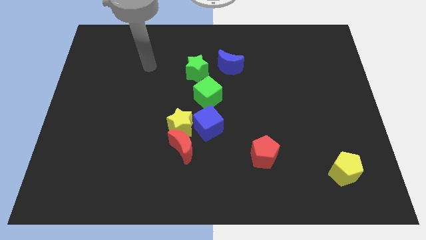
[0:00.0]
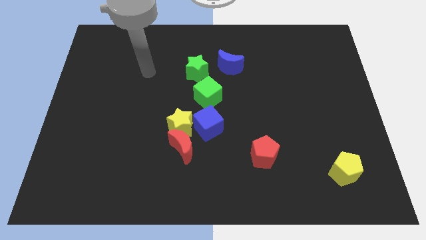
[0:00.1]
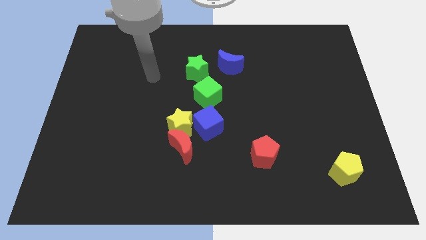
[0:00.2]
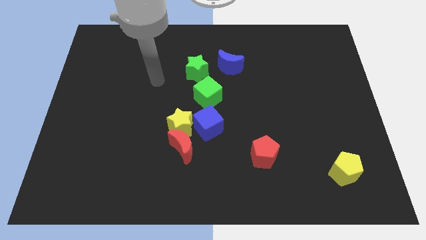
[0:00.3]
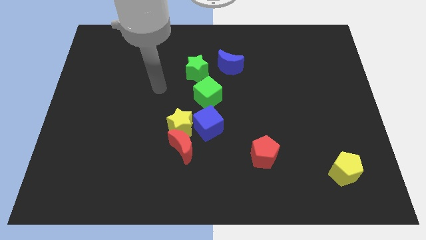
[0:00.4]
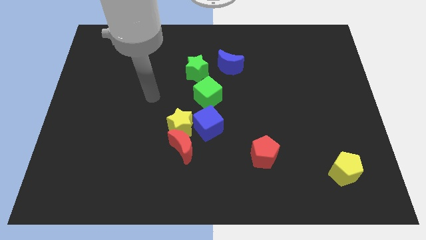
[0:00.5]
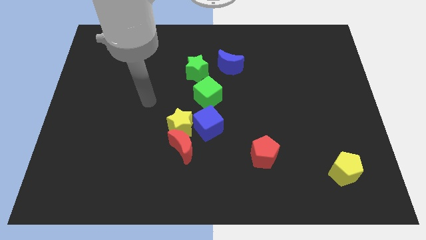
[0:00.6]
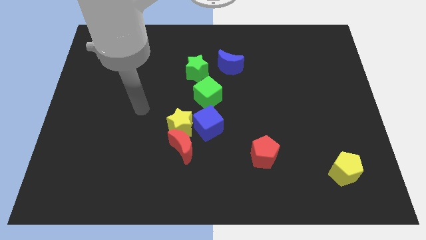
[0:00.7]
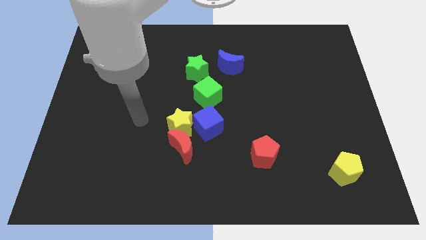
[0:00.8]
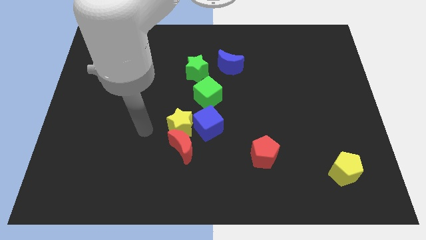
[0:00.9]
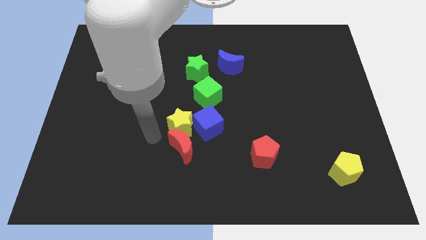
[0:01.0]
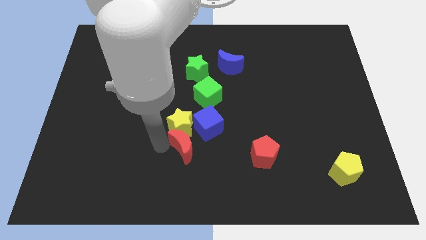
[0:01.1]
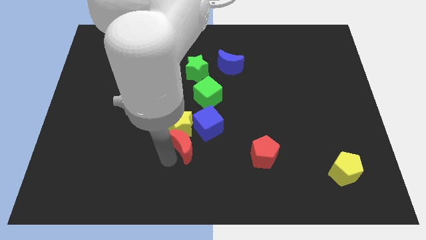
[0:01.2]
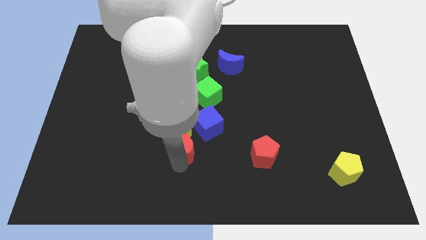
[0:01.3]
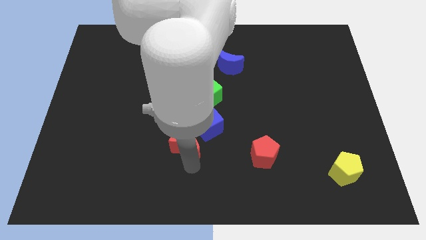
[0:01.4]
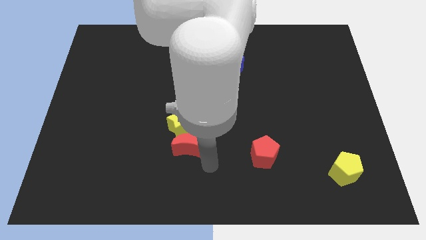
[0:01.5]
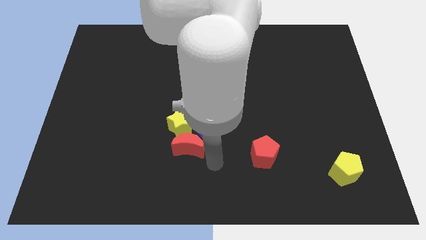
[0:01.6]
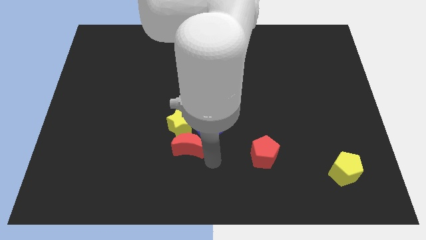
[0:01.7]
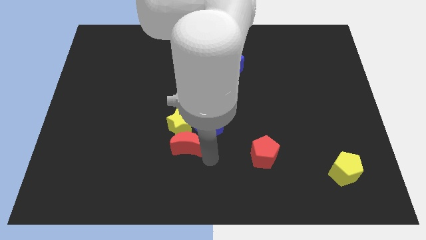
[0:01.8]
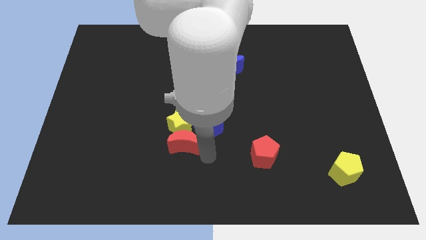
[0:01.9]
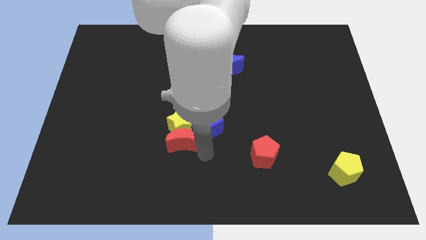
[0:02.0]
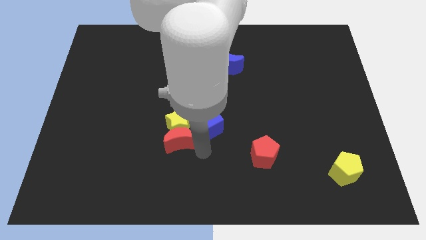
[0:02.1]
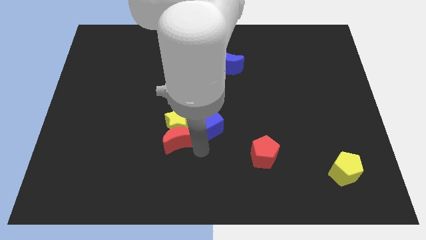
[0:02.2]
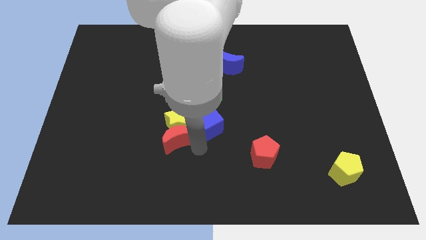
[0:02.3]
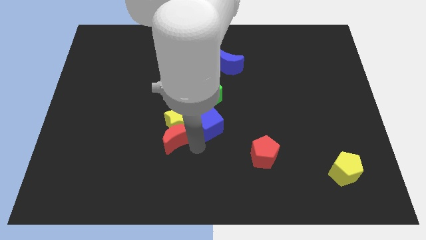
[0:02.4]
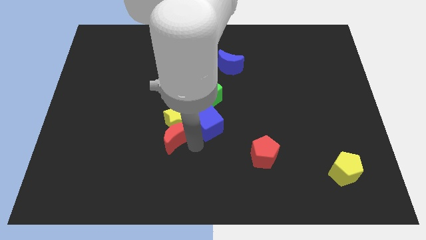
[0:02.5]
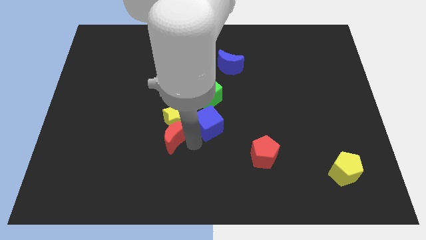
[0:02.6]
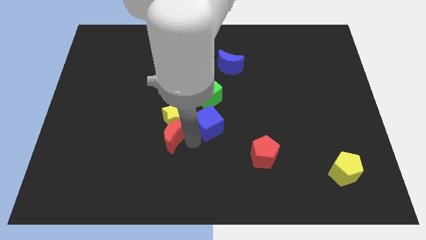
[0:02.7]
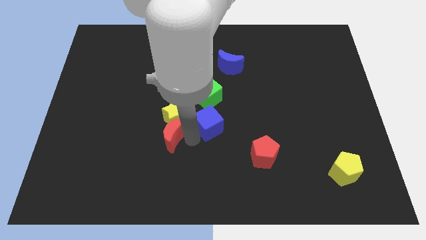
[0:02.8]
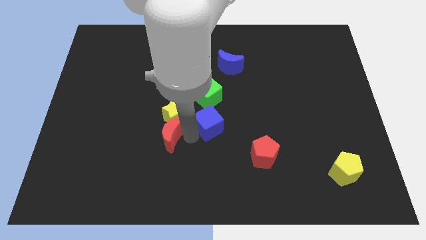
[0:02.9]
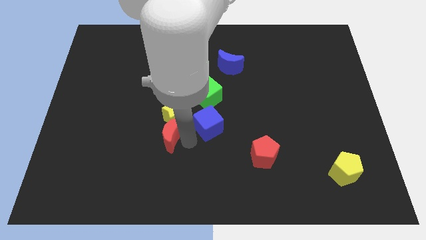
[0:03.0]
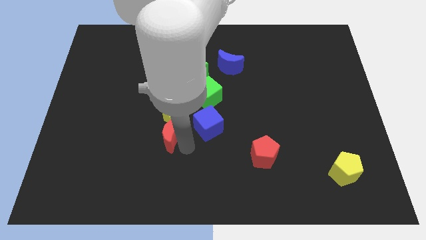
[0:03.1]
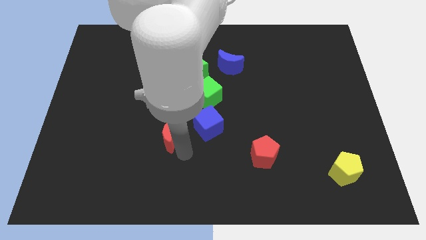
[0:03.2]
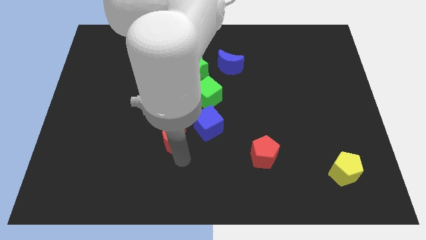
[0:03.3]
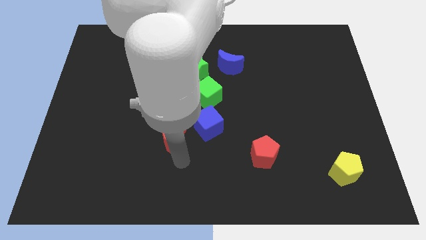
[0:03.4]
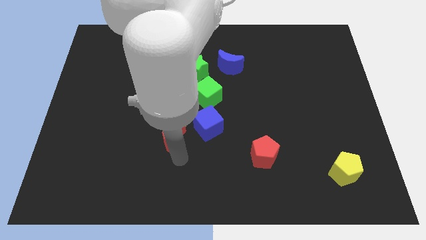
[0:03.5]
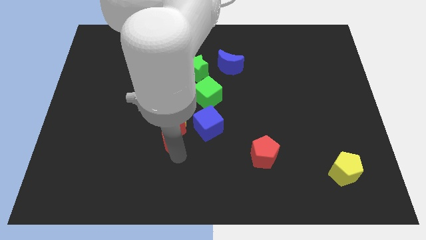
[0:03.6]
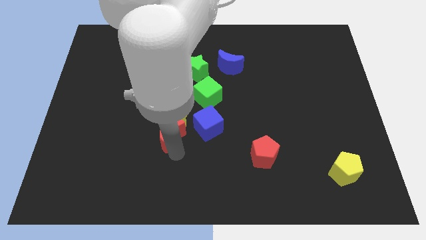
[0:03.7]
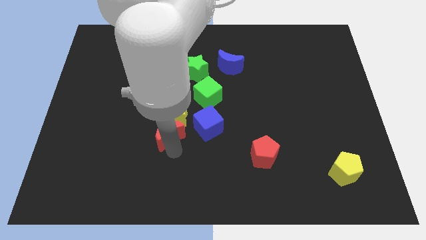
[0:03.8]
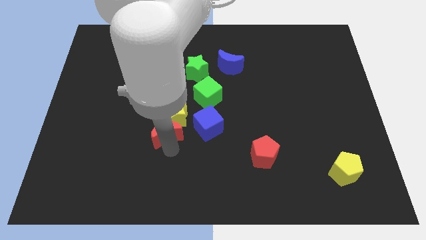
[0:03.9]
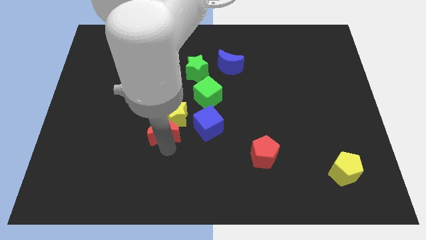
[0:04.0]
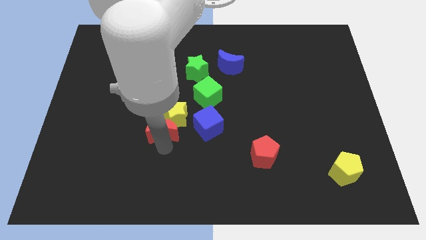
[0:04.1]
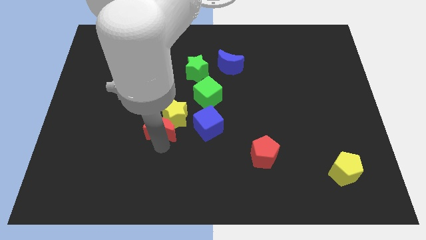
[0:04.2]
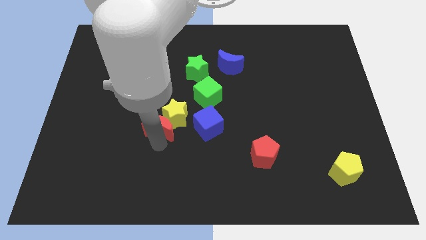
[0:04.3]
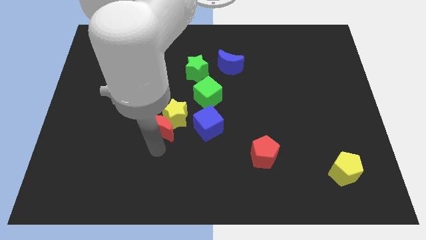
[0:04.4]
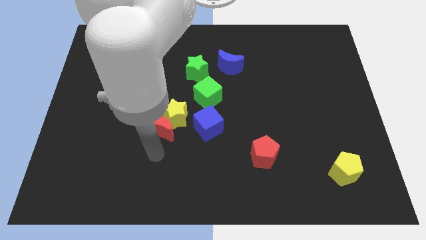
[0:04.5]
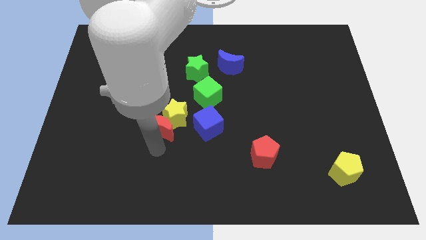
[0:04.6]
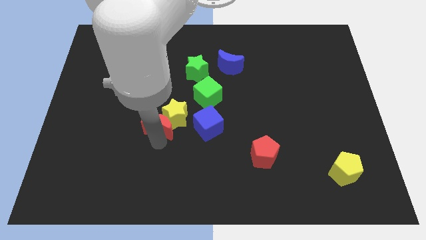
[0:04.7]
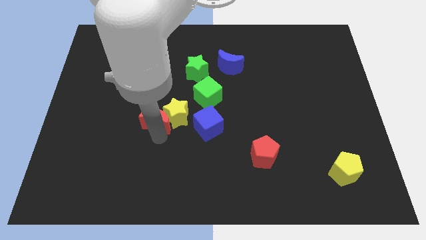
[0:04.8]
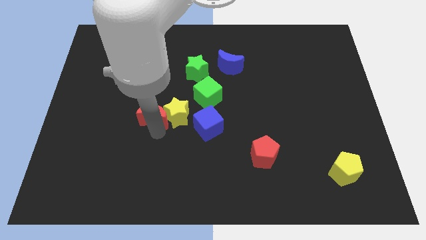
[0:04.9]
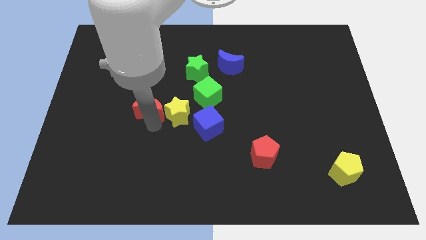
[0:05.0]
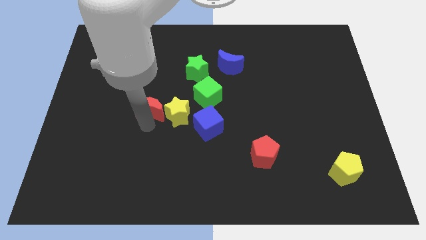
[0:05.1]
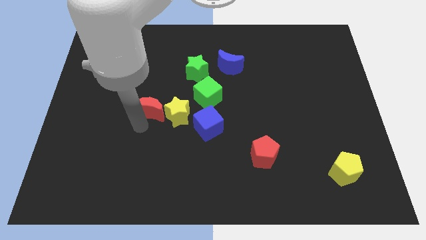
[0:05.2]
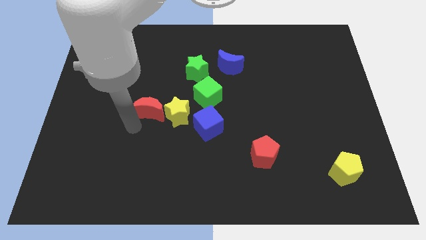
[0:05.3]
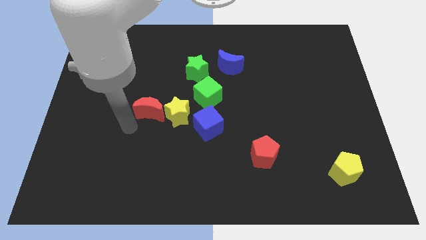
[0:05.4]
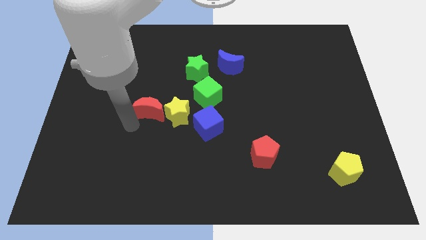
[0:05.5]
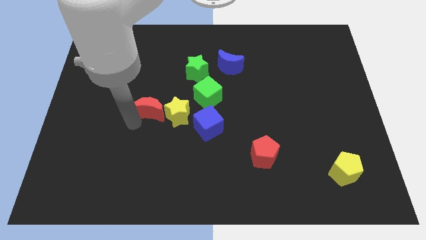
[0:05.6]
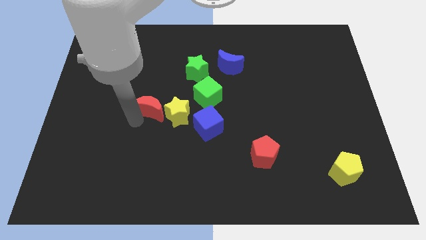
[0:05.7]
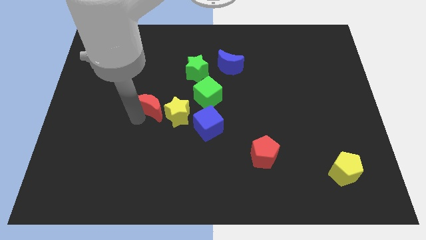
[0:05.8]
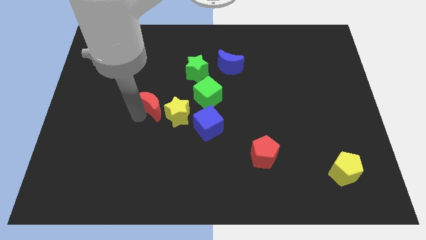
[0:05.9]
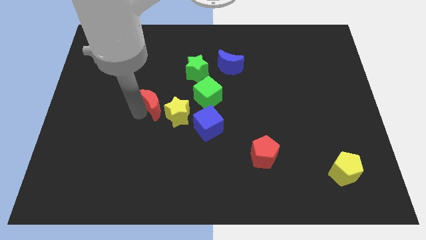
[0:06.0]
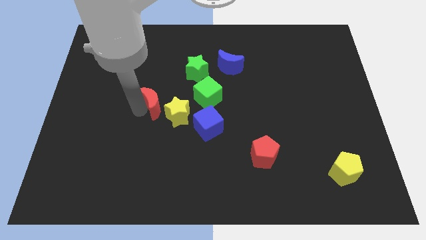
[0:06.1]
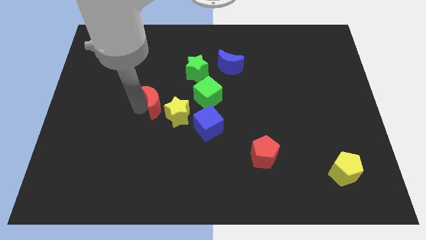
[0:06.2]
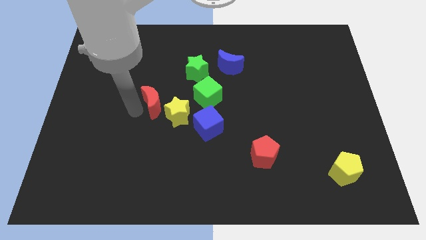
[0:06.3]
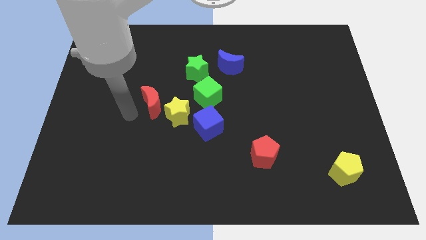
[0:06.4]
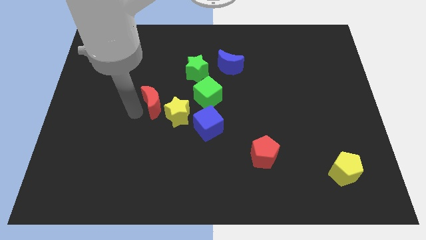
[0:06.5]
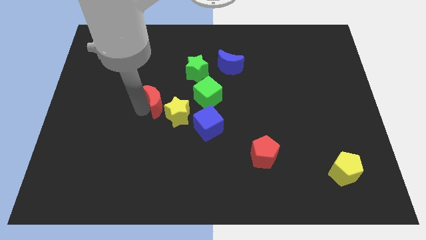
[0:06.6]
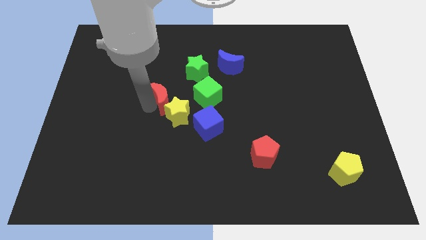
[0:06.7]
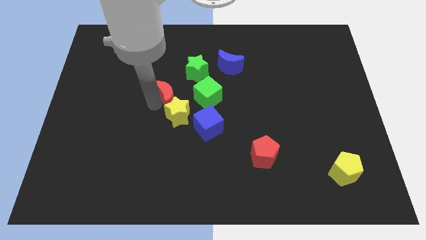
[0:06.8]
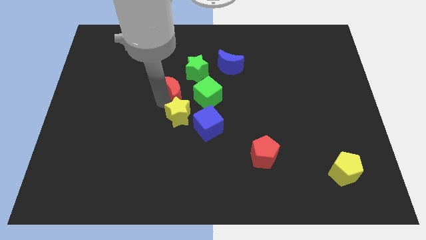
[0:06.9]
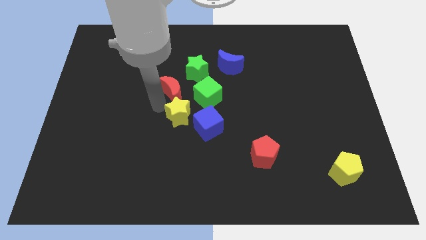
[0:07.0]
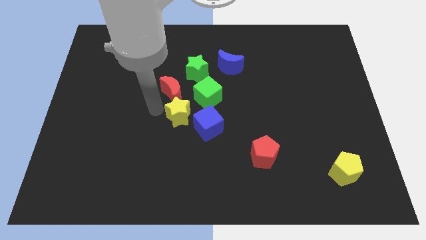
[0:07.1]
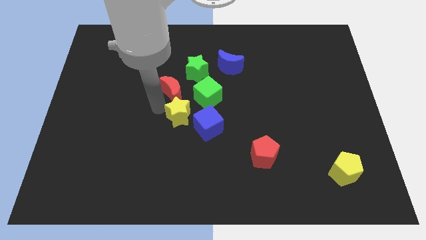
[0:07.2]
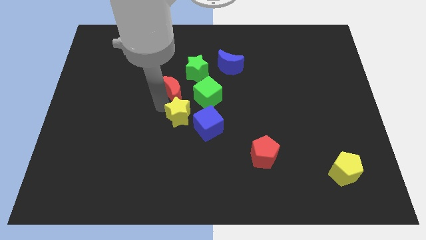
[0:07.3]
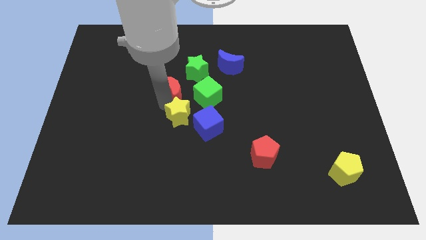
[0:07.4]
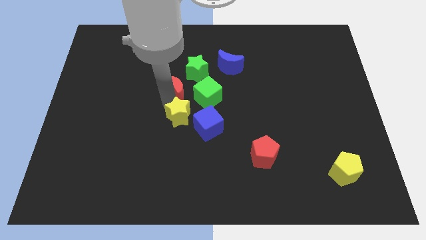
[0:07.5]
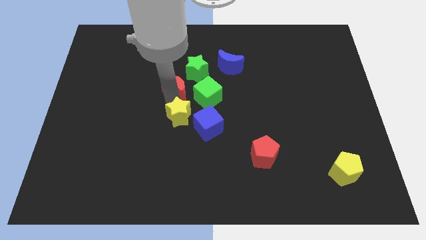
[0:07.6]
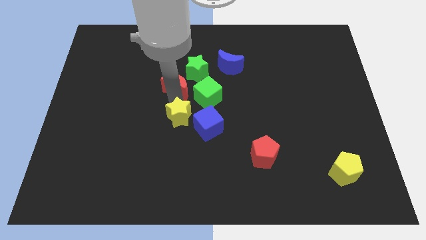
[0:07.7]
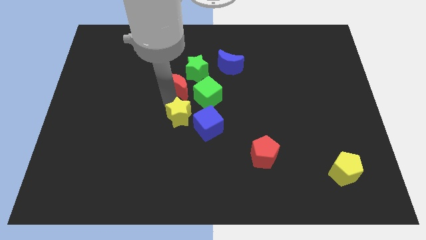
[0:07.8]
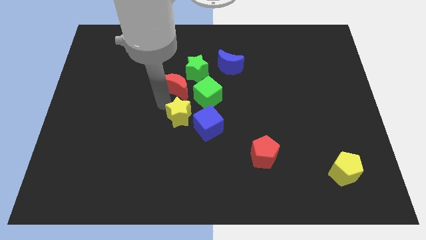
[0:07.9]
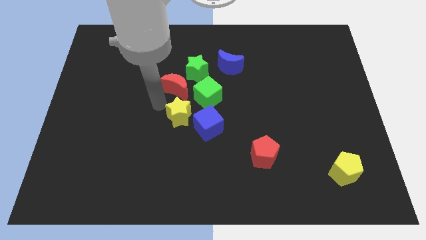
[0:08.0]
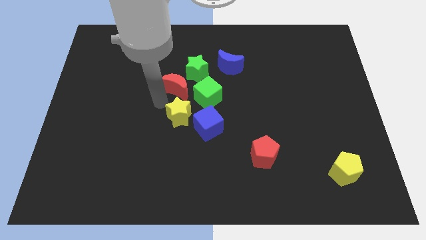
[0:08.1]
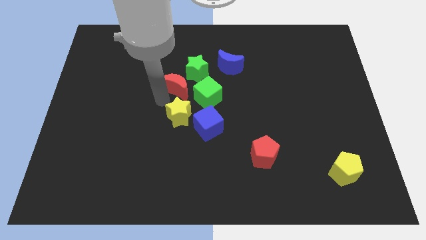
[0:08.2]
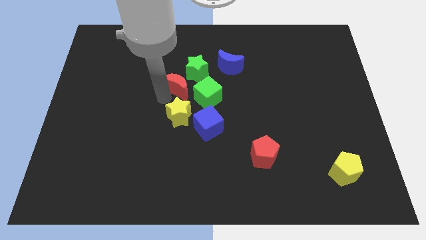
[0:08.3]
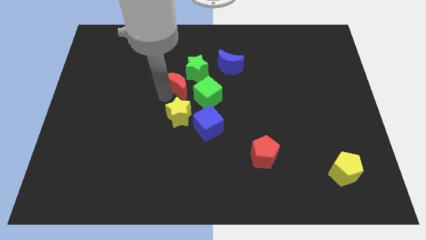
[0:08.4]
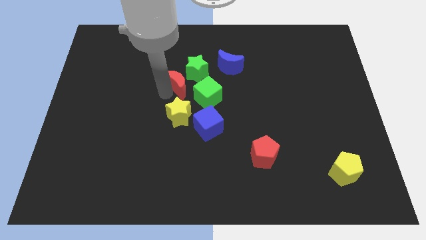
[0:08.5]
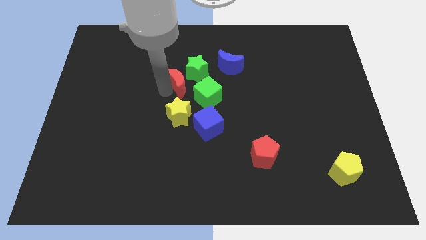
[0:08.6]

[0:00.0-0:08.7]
move the red moon towards the green star
